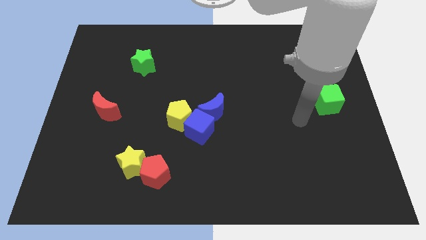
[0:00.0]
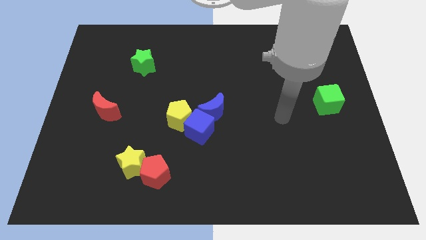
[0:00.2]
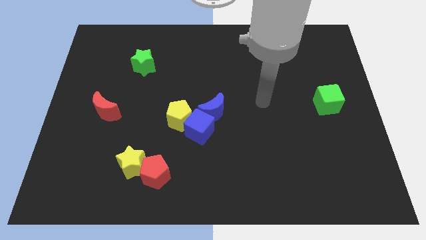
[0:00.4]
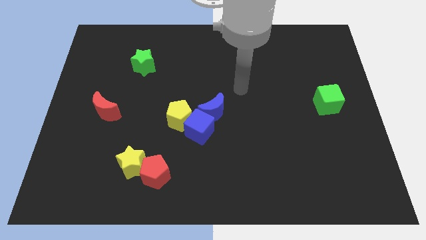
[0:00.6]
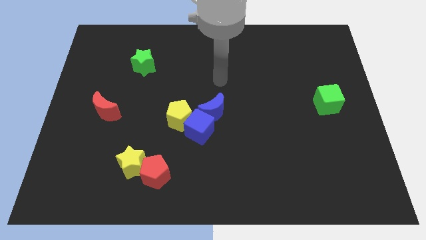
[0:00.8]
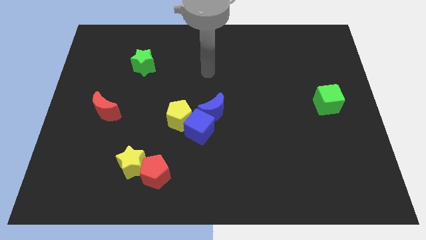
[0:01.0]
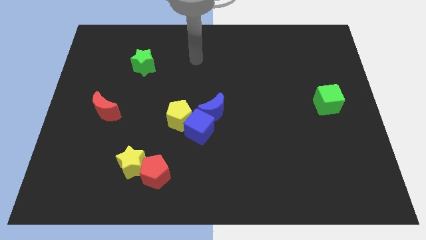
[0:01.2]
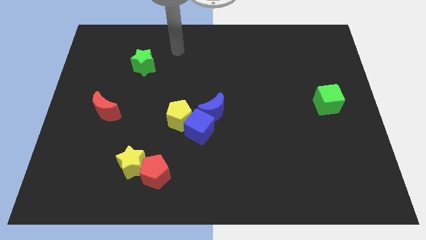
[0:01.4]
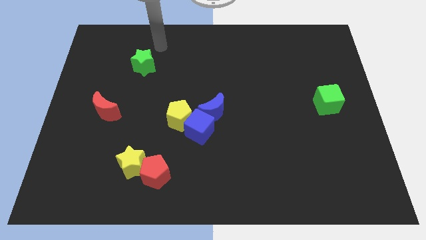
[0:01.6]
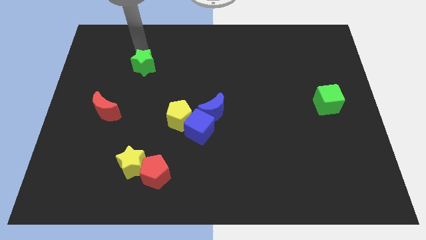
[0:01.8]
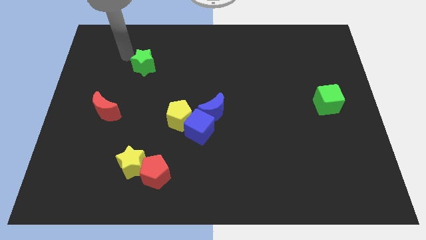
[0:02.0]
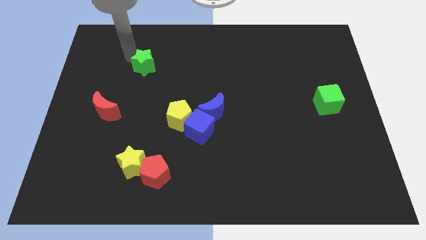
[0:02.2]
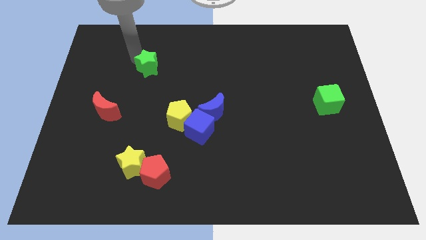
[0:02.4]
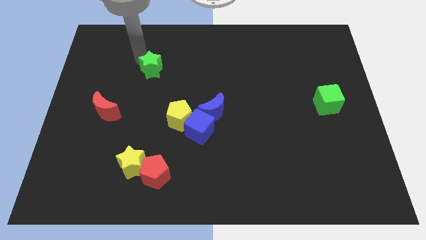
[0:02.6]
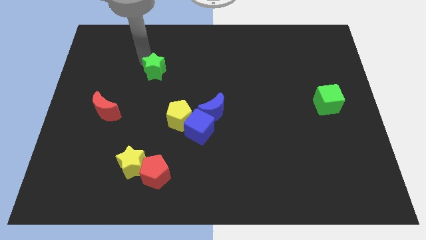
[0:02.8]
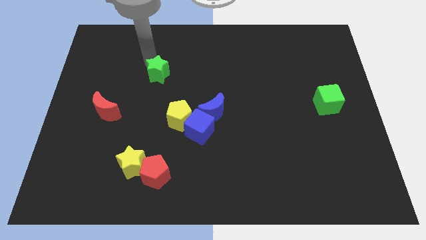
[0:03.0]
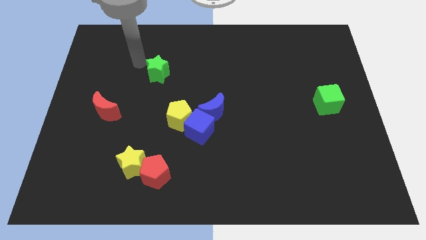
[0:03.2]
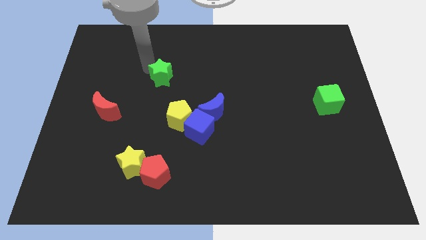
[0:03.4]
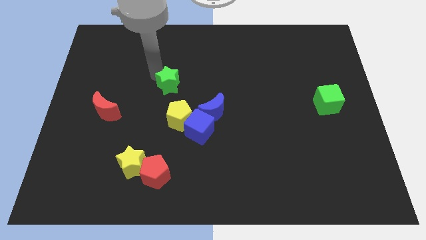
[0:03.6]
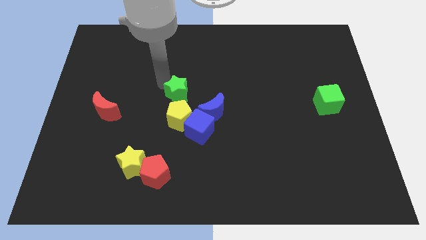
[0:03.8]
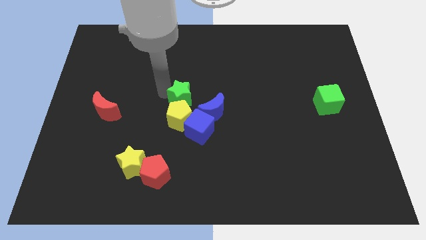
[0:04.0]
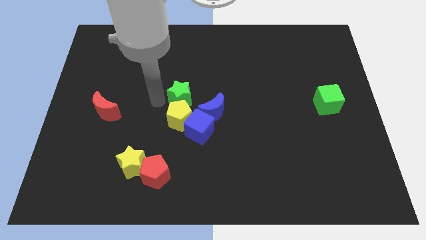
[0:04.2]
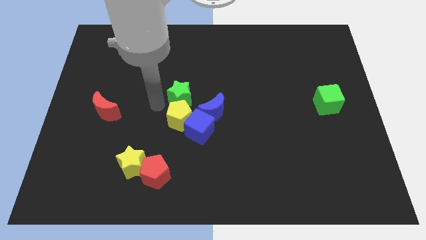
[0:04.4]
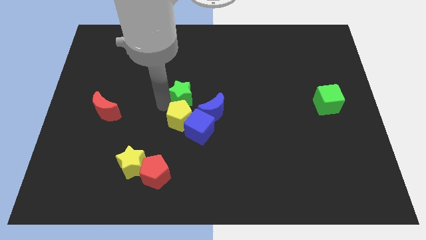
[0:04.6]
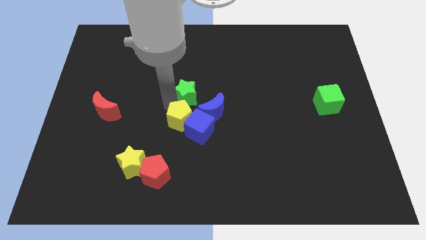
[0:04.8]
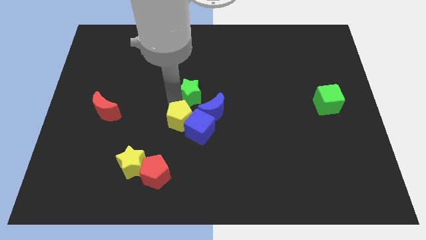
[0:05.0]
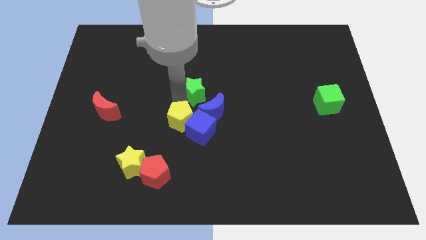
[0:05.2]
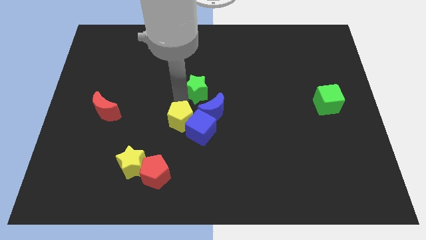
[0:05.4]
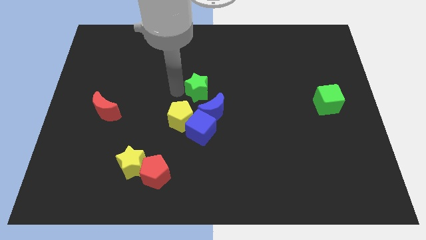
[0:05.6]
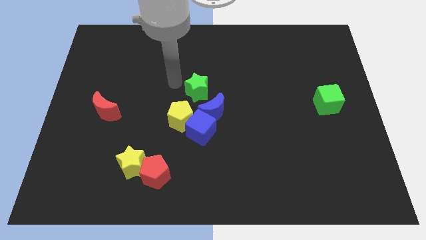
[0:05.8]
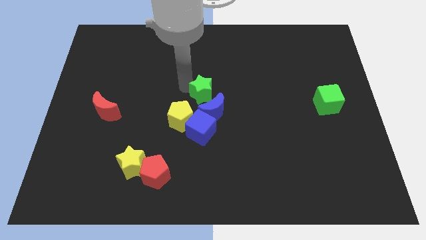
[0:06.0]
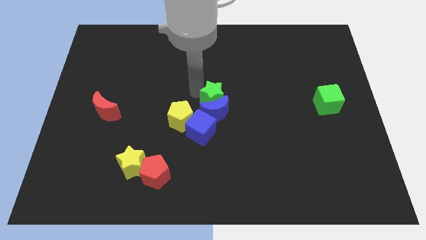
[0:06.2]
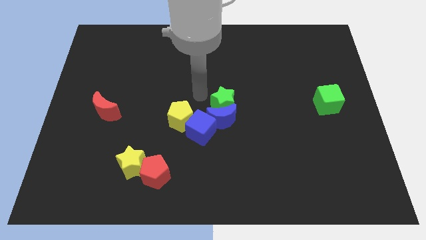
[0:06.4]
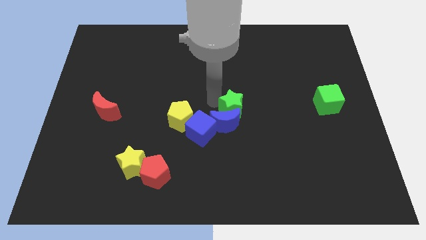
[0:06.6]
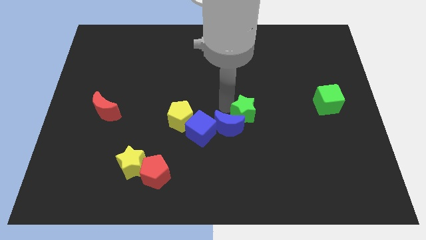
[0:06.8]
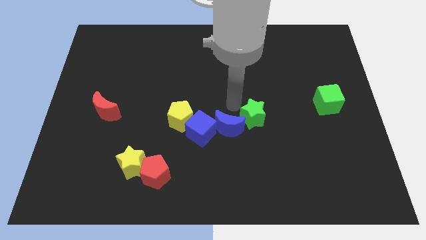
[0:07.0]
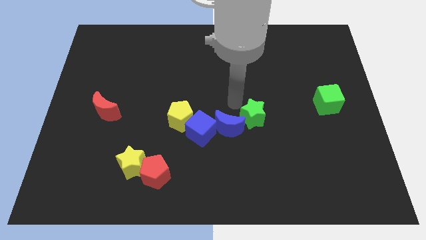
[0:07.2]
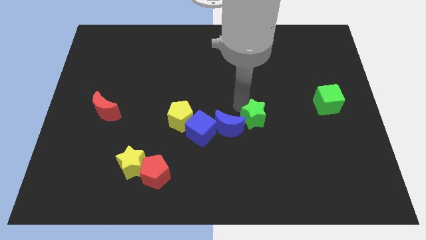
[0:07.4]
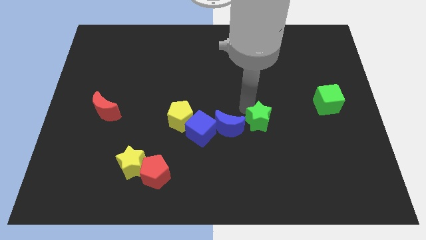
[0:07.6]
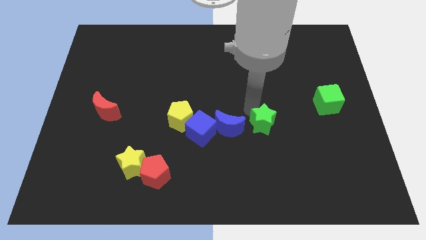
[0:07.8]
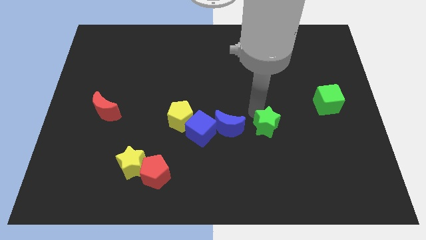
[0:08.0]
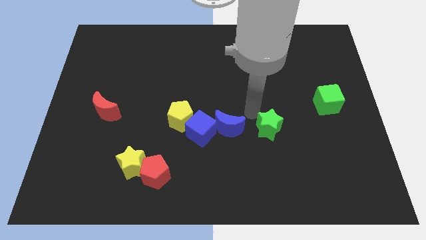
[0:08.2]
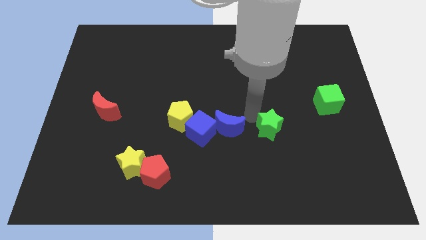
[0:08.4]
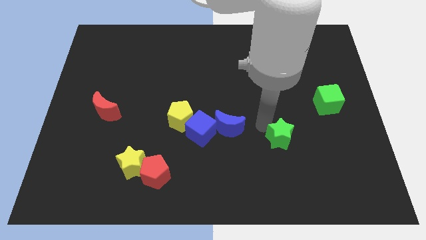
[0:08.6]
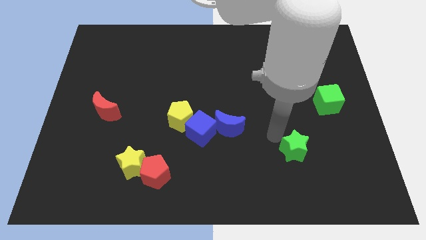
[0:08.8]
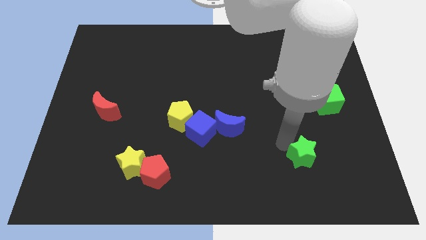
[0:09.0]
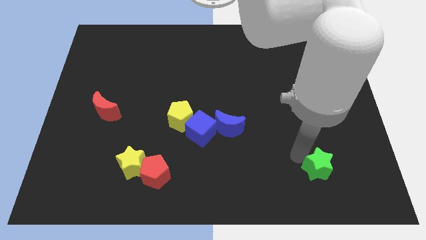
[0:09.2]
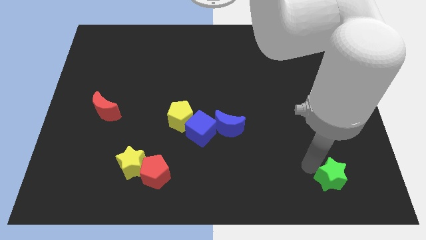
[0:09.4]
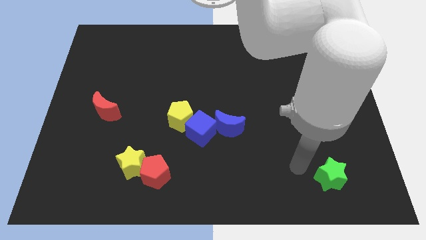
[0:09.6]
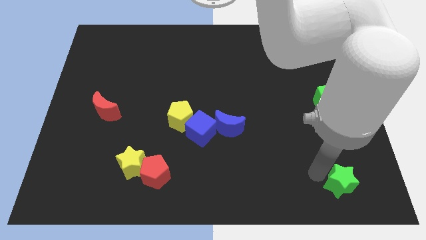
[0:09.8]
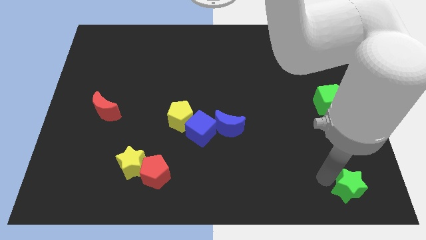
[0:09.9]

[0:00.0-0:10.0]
slide the green star to the bottom right corner

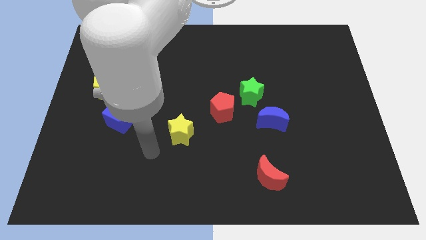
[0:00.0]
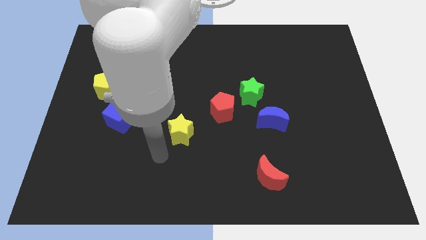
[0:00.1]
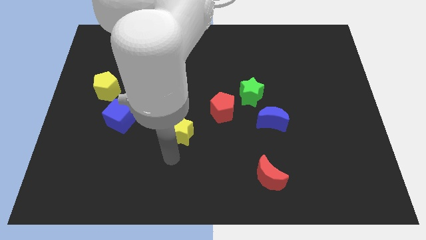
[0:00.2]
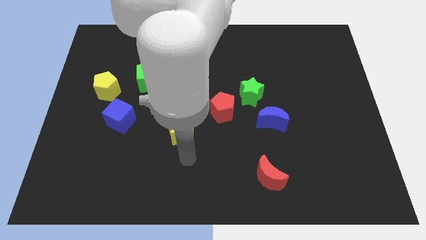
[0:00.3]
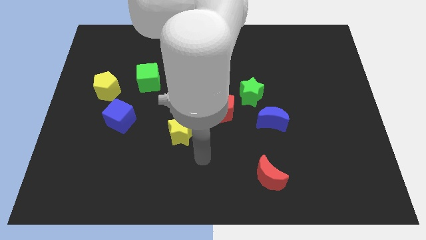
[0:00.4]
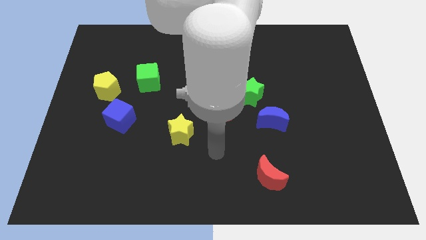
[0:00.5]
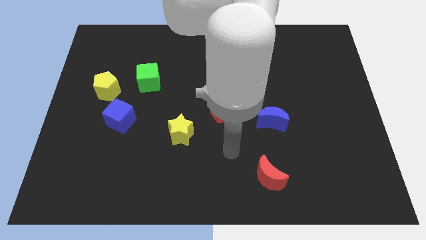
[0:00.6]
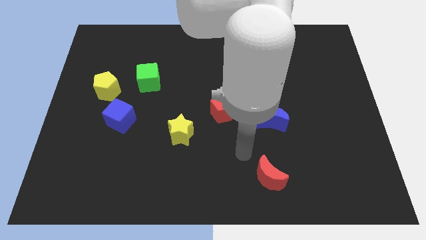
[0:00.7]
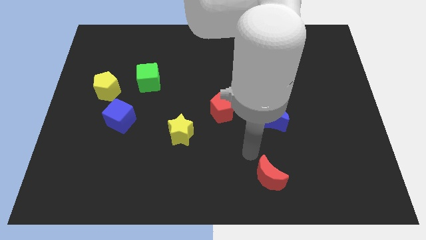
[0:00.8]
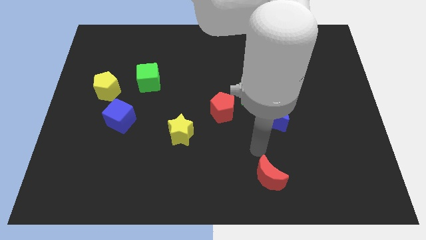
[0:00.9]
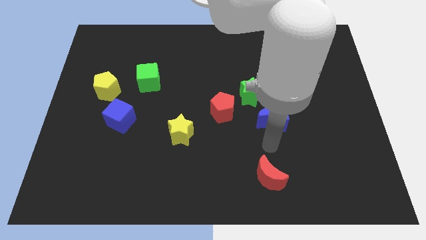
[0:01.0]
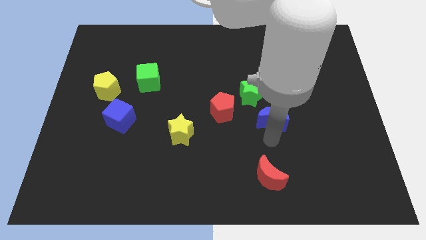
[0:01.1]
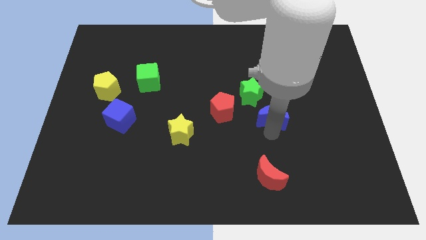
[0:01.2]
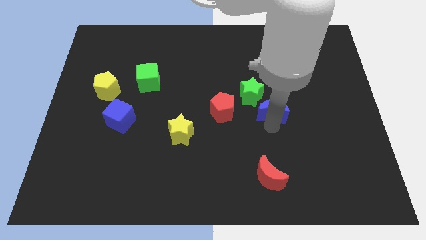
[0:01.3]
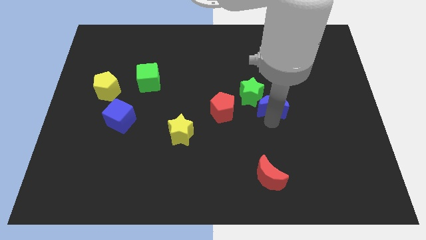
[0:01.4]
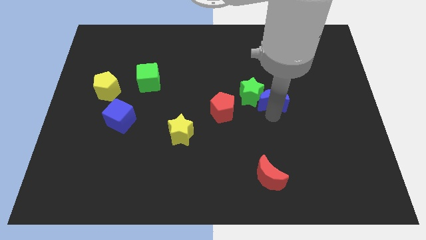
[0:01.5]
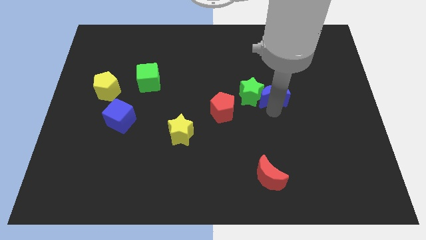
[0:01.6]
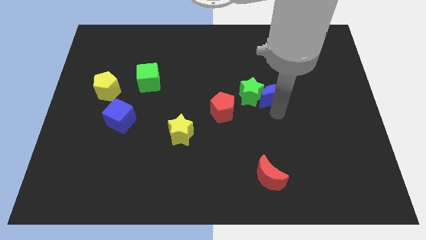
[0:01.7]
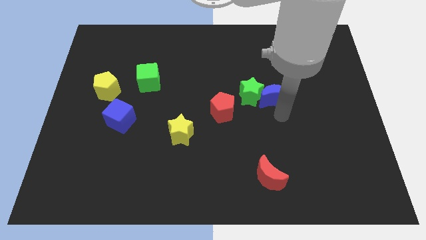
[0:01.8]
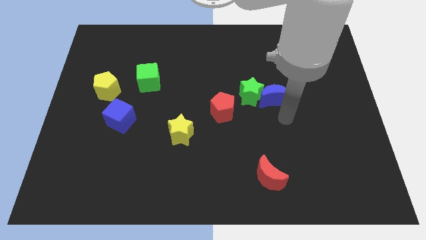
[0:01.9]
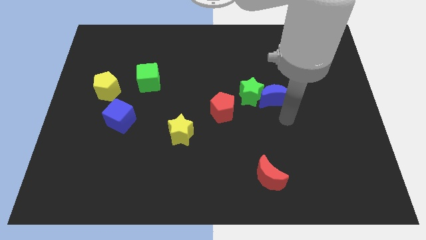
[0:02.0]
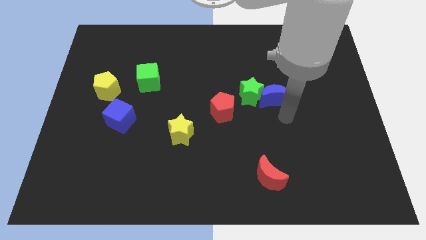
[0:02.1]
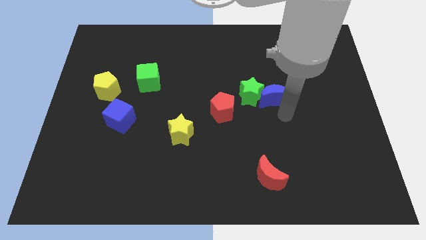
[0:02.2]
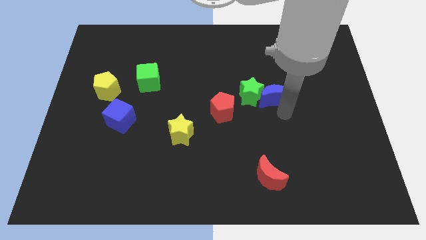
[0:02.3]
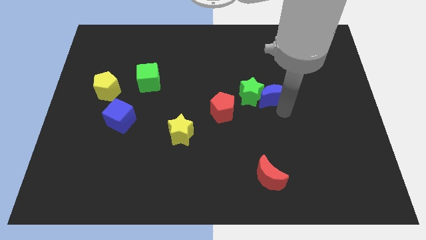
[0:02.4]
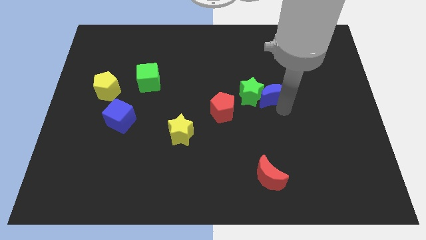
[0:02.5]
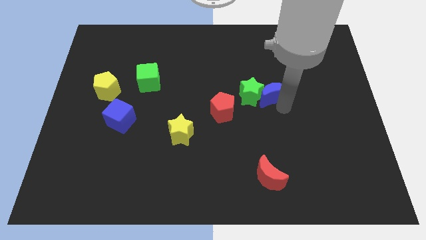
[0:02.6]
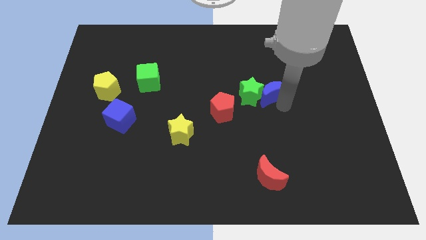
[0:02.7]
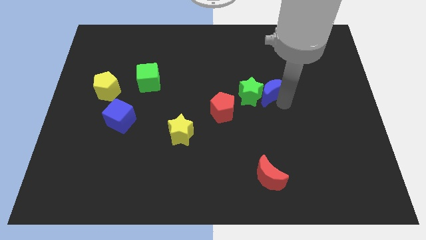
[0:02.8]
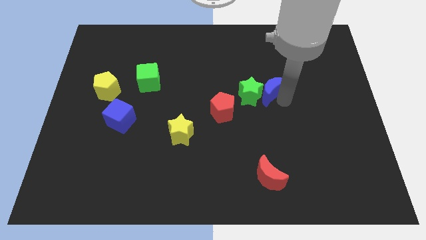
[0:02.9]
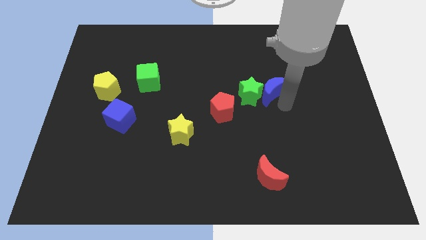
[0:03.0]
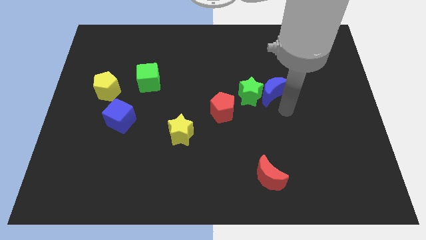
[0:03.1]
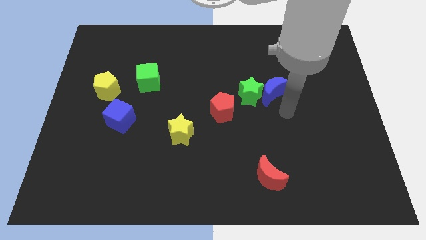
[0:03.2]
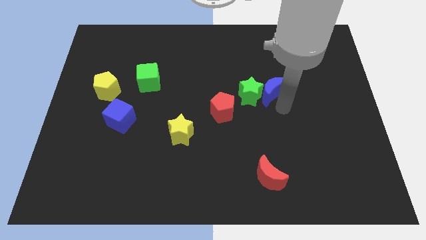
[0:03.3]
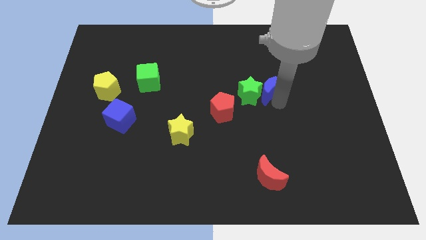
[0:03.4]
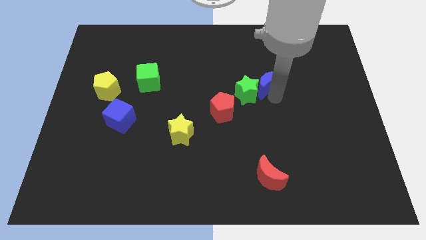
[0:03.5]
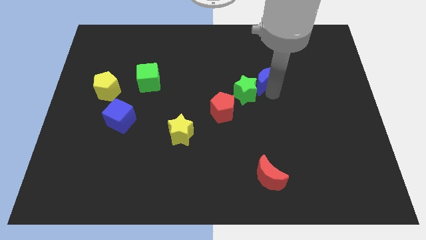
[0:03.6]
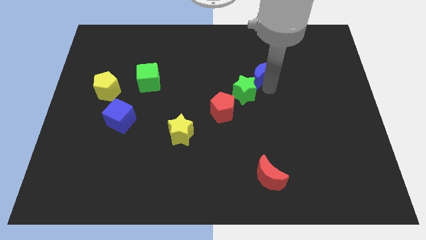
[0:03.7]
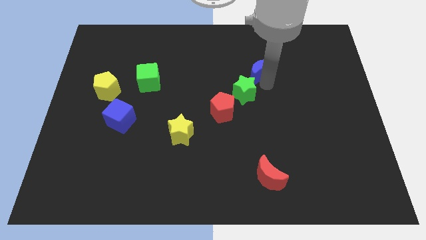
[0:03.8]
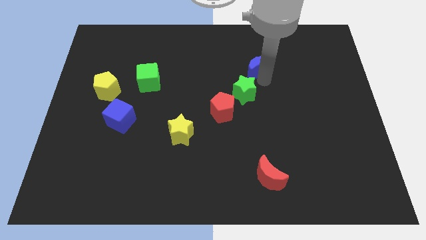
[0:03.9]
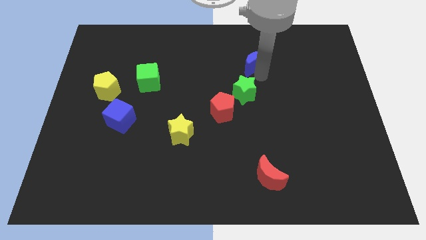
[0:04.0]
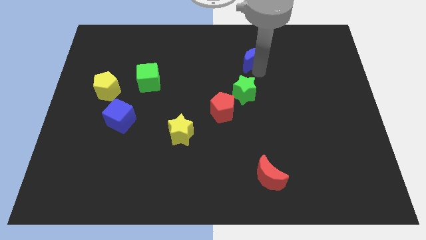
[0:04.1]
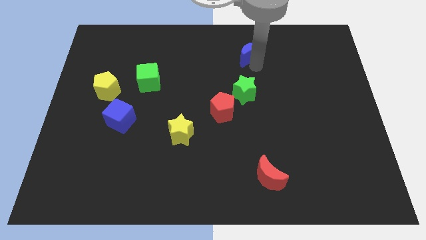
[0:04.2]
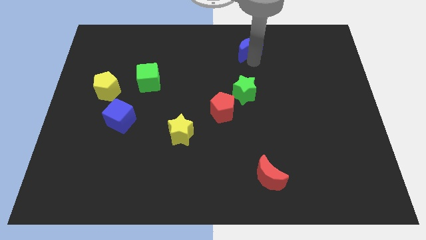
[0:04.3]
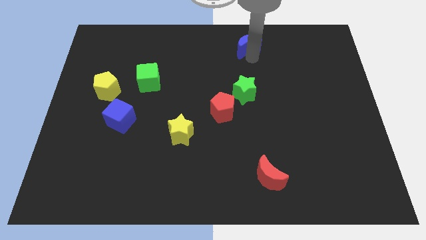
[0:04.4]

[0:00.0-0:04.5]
move the blue moon to the top side
